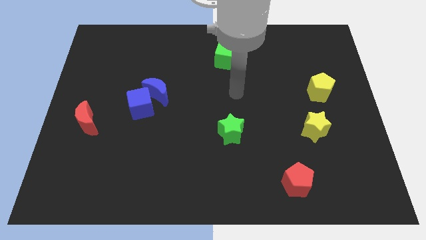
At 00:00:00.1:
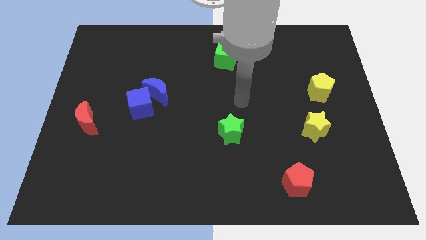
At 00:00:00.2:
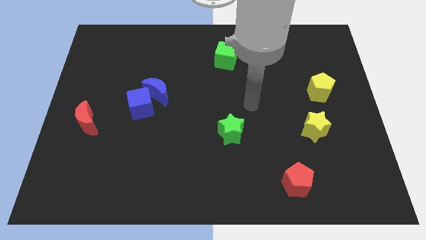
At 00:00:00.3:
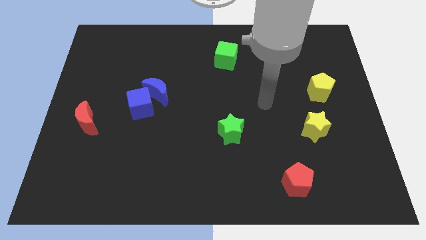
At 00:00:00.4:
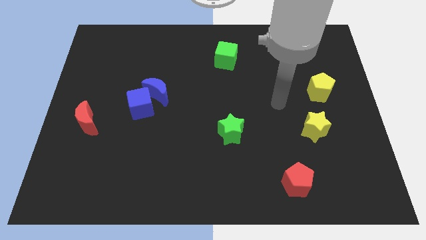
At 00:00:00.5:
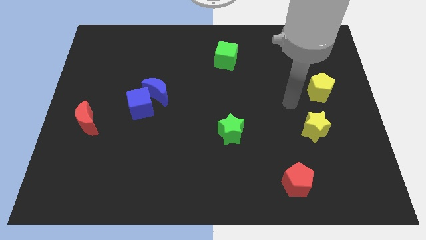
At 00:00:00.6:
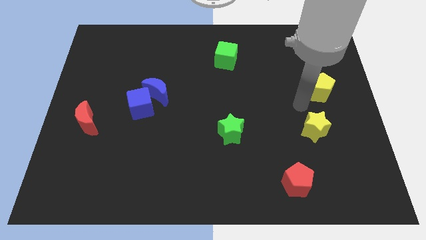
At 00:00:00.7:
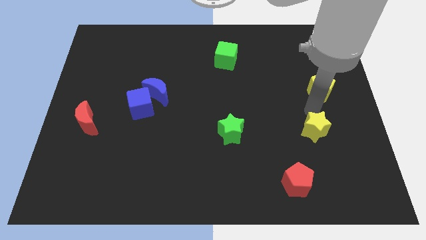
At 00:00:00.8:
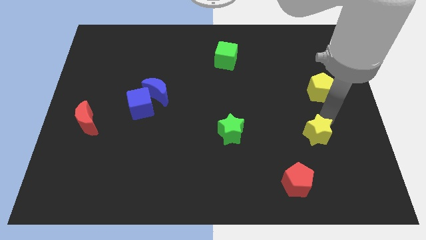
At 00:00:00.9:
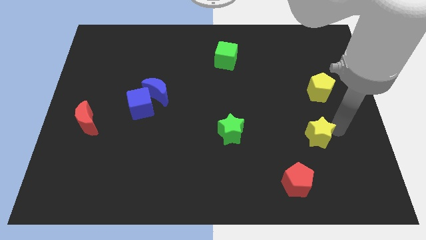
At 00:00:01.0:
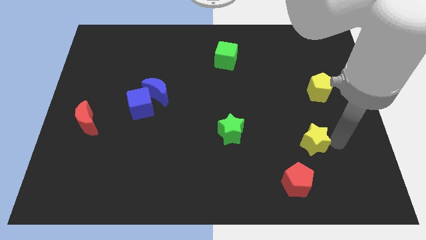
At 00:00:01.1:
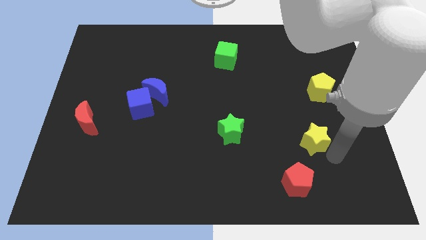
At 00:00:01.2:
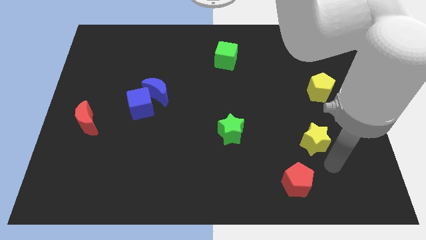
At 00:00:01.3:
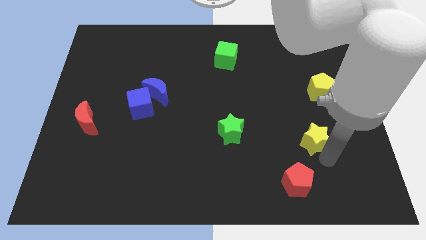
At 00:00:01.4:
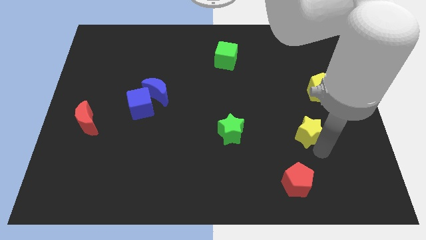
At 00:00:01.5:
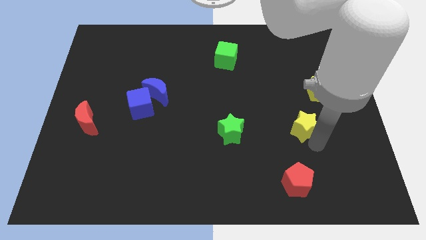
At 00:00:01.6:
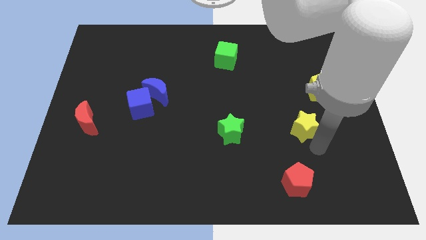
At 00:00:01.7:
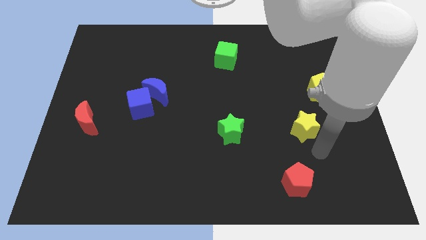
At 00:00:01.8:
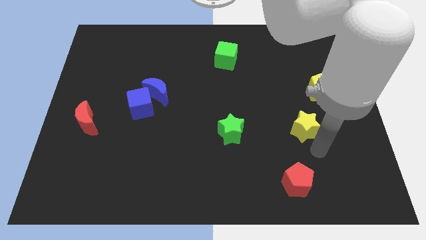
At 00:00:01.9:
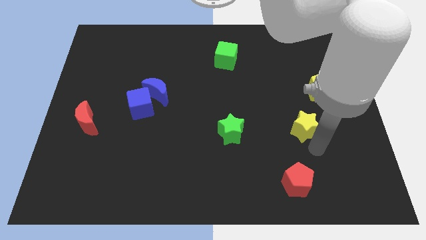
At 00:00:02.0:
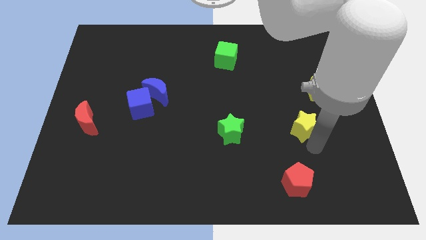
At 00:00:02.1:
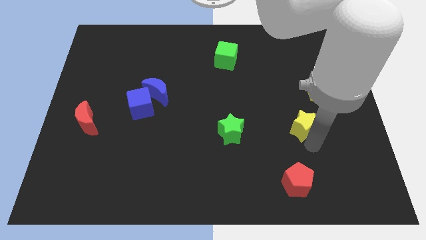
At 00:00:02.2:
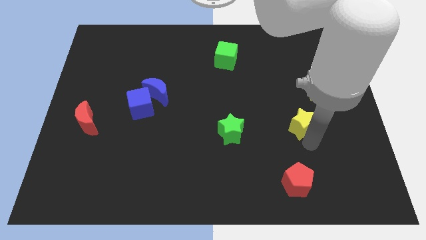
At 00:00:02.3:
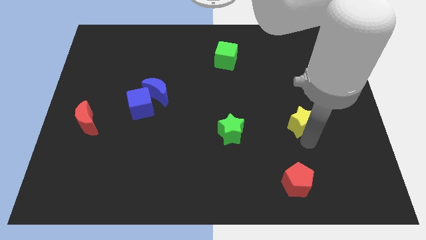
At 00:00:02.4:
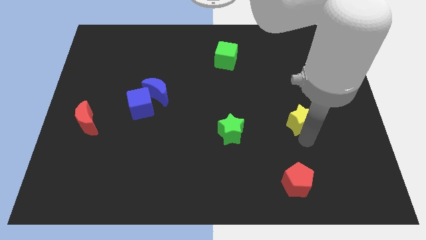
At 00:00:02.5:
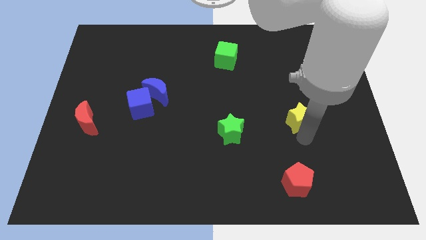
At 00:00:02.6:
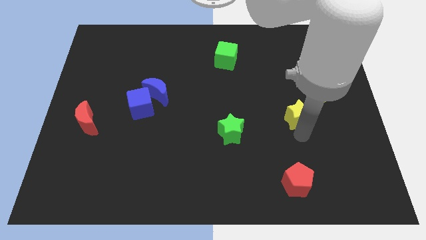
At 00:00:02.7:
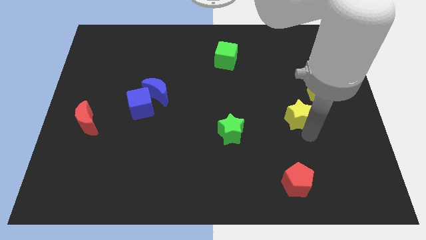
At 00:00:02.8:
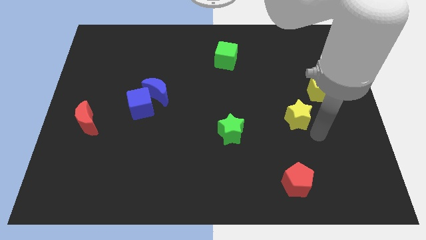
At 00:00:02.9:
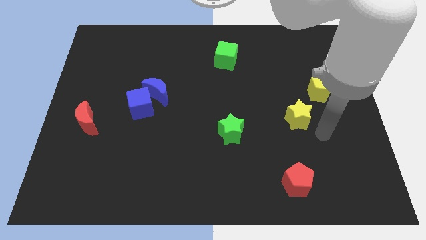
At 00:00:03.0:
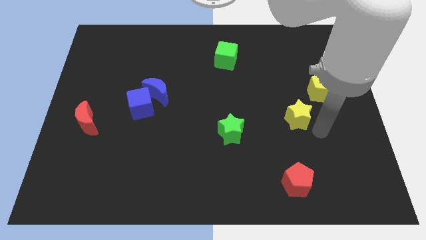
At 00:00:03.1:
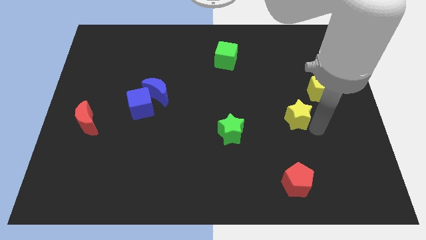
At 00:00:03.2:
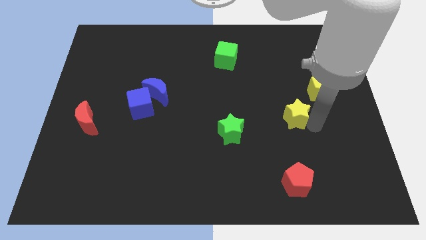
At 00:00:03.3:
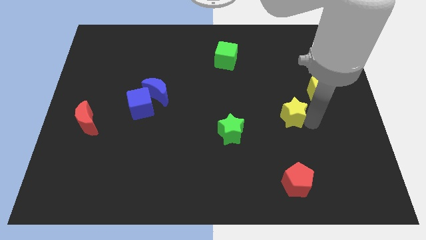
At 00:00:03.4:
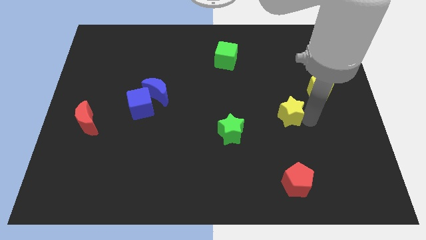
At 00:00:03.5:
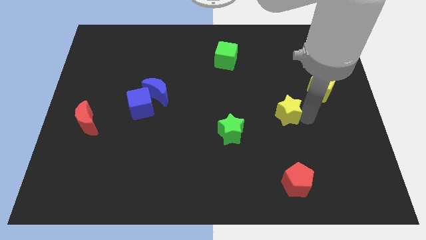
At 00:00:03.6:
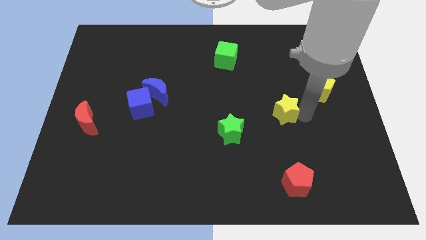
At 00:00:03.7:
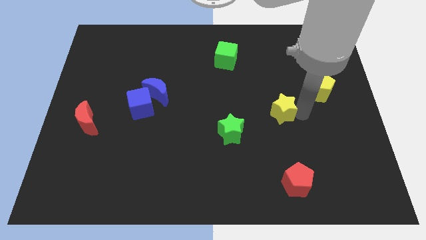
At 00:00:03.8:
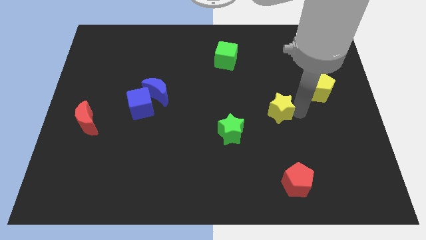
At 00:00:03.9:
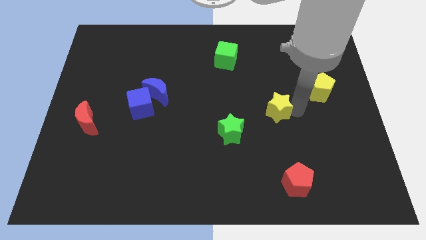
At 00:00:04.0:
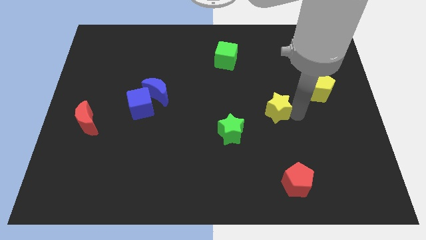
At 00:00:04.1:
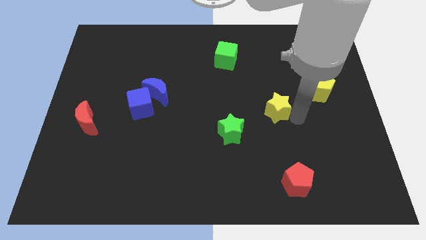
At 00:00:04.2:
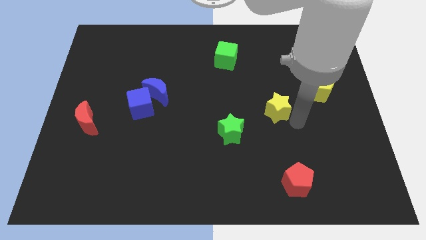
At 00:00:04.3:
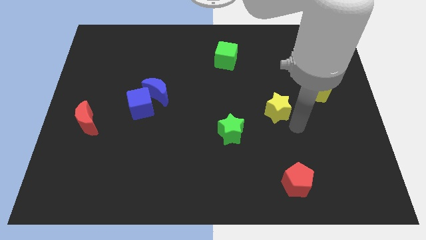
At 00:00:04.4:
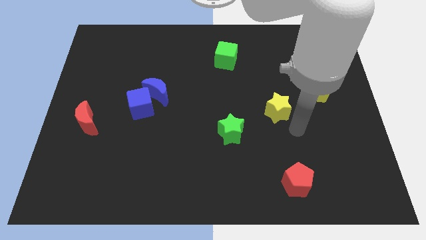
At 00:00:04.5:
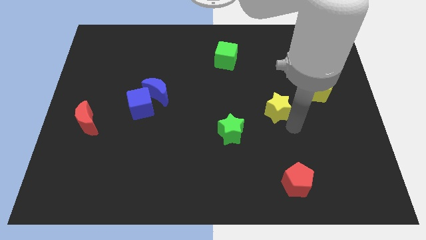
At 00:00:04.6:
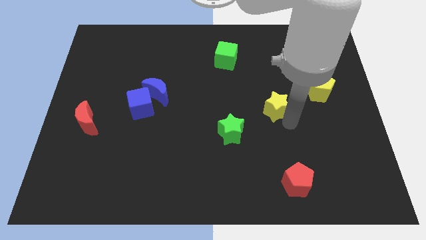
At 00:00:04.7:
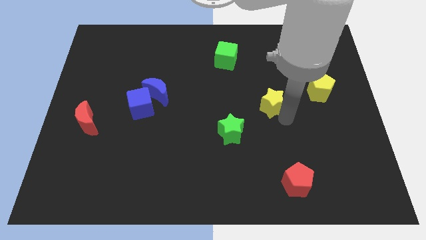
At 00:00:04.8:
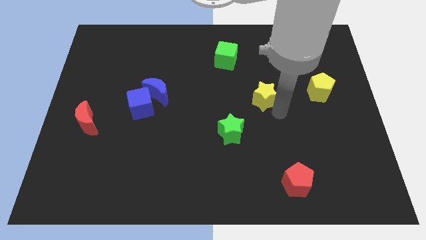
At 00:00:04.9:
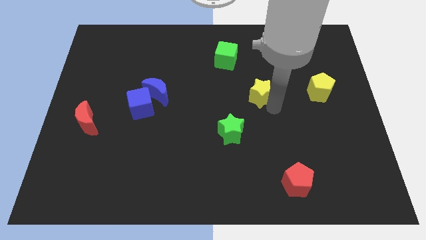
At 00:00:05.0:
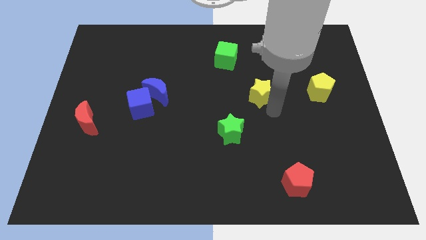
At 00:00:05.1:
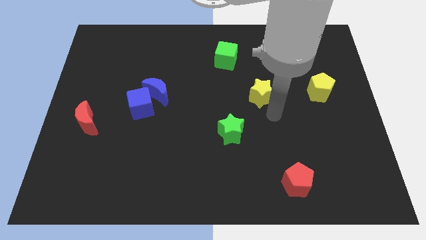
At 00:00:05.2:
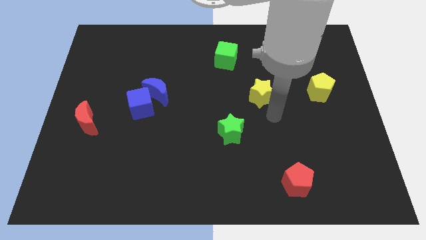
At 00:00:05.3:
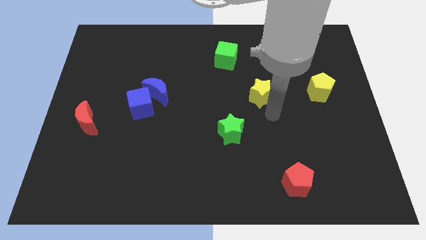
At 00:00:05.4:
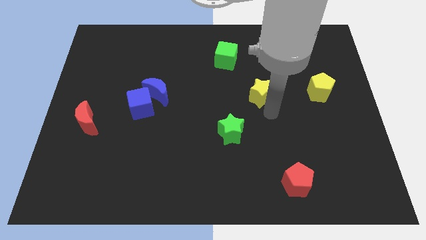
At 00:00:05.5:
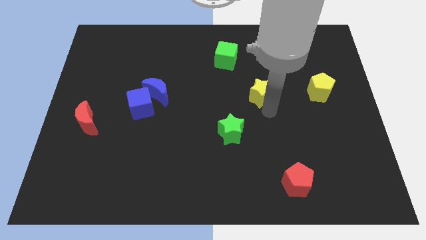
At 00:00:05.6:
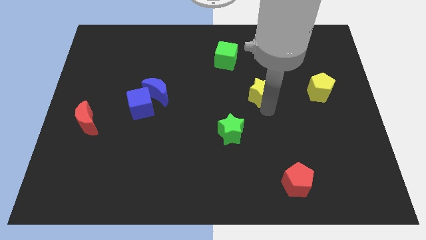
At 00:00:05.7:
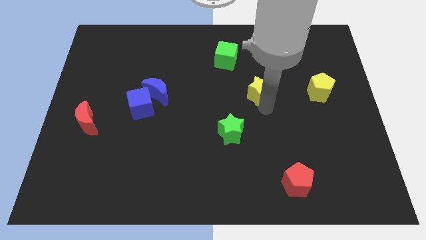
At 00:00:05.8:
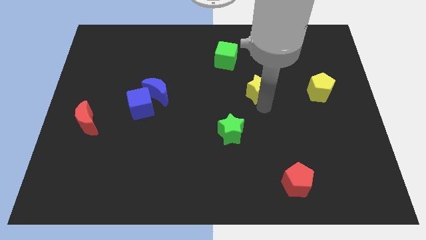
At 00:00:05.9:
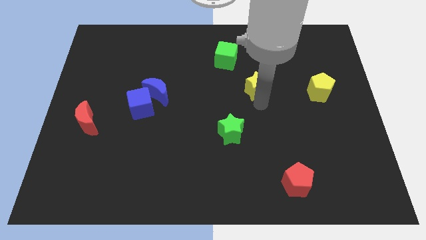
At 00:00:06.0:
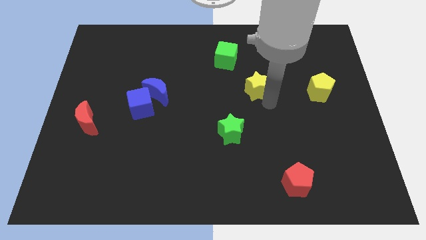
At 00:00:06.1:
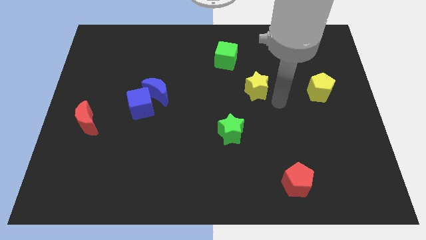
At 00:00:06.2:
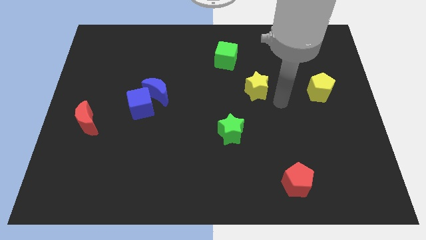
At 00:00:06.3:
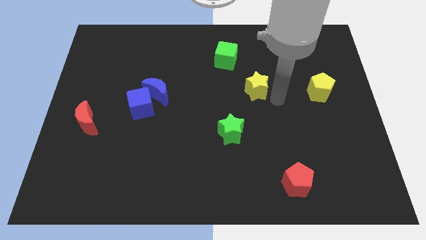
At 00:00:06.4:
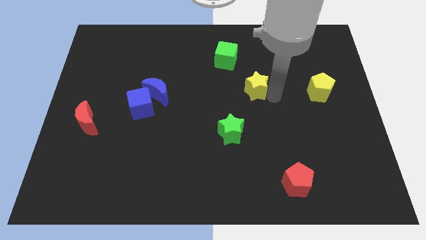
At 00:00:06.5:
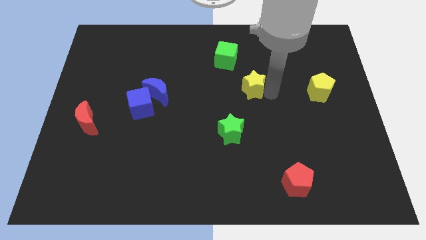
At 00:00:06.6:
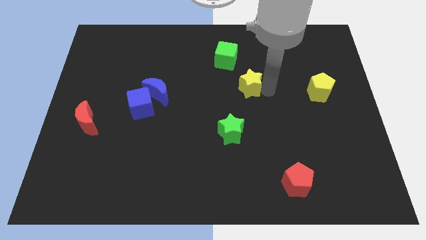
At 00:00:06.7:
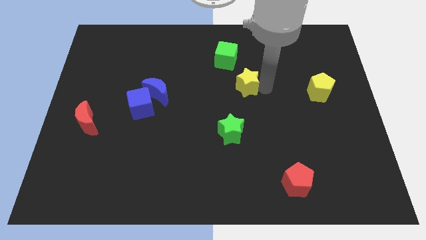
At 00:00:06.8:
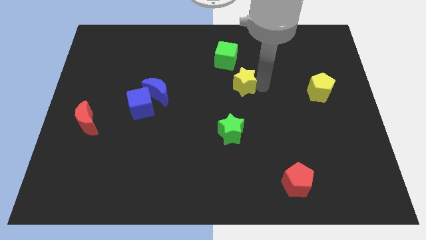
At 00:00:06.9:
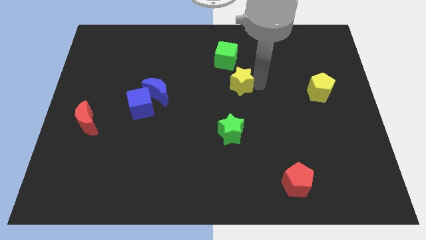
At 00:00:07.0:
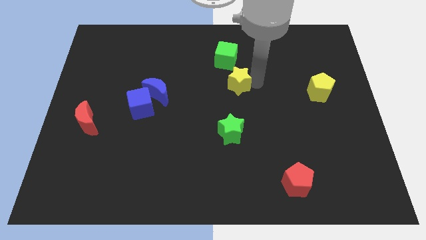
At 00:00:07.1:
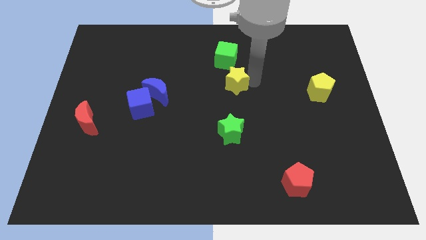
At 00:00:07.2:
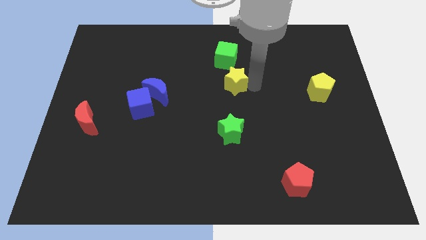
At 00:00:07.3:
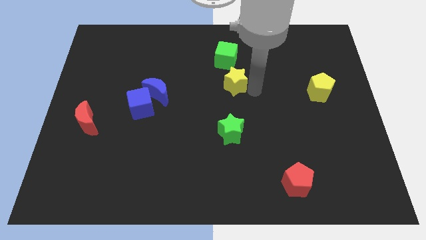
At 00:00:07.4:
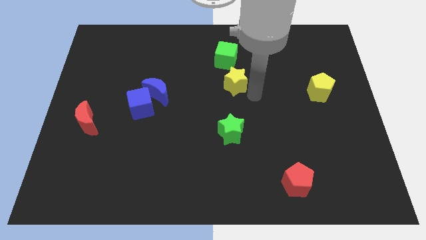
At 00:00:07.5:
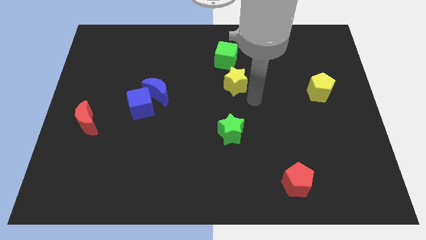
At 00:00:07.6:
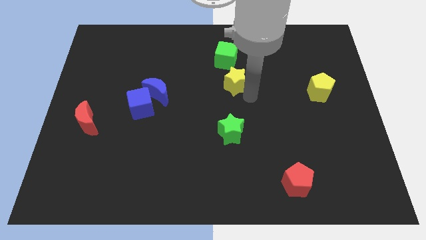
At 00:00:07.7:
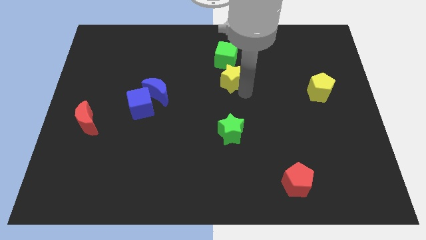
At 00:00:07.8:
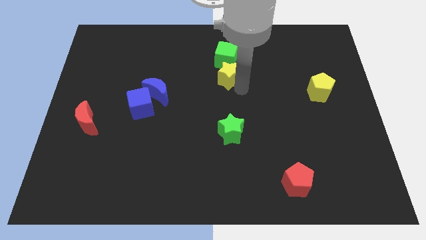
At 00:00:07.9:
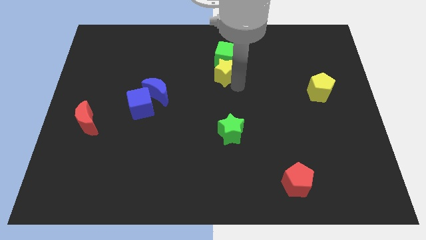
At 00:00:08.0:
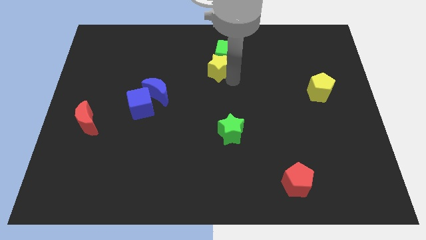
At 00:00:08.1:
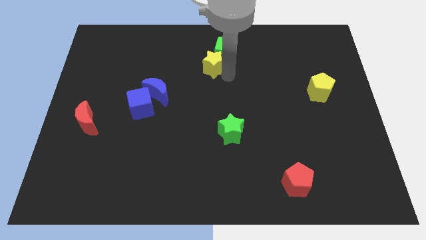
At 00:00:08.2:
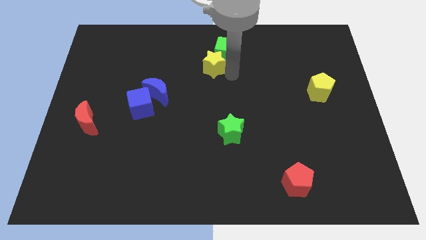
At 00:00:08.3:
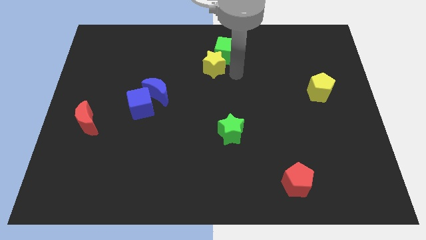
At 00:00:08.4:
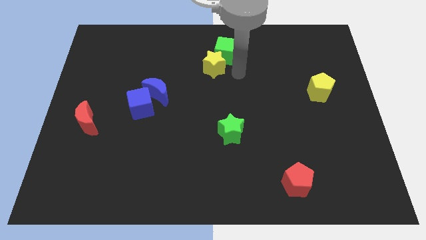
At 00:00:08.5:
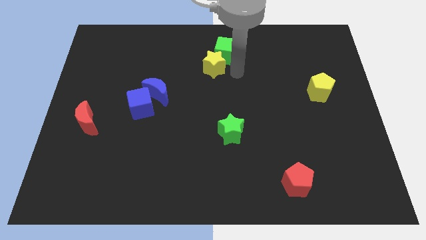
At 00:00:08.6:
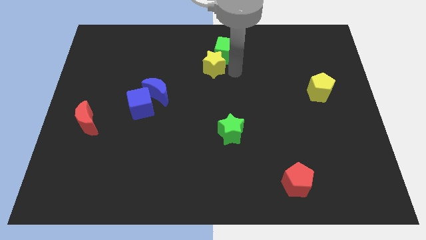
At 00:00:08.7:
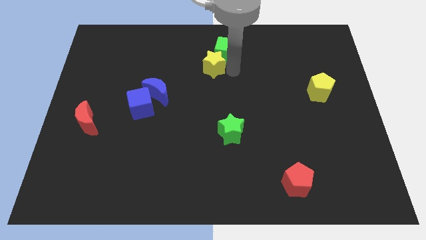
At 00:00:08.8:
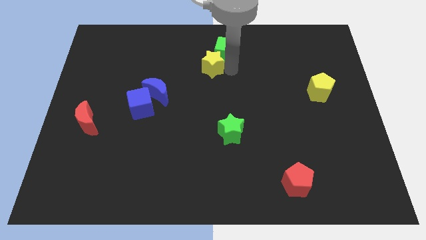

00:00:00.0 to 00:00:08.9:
slide the yellow star just left of the green cube
